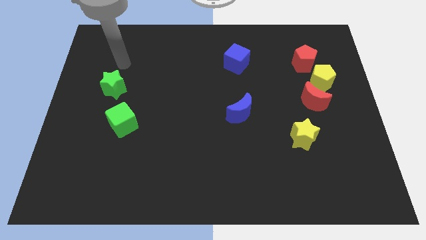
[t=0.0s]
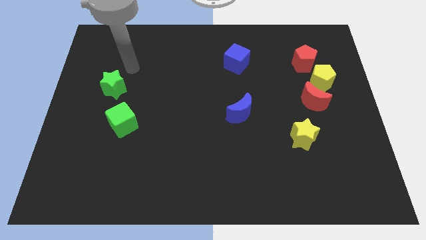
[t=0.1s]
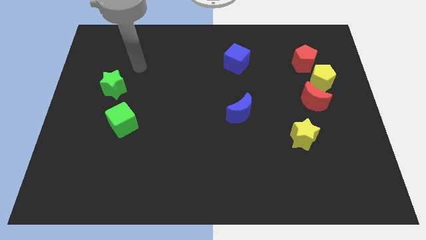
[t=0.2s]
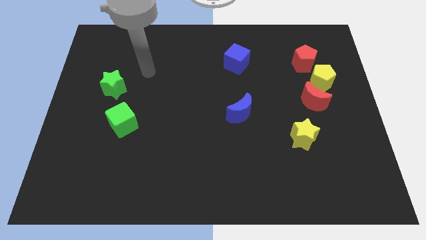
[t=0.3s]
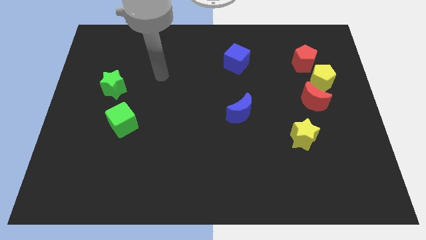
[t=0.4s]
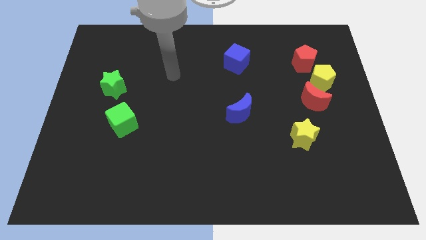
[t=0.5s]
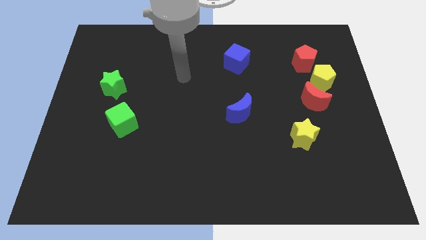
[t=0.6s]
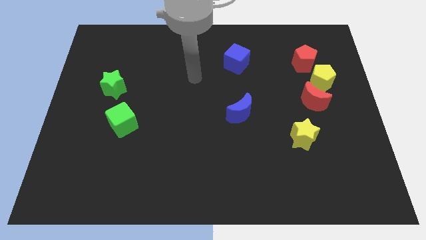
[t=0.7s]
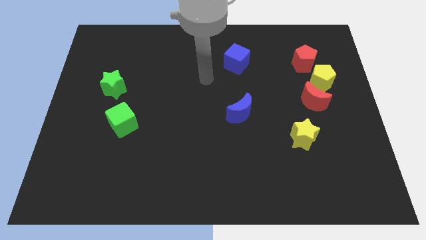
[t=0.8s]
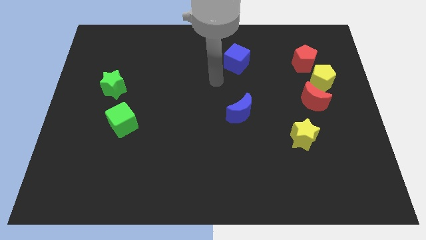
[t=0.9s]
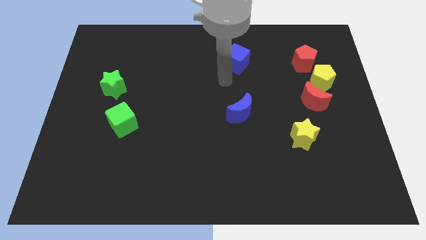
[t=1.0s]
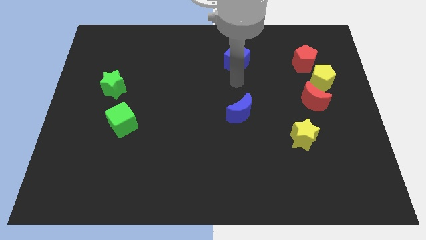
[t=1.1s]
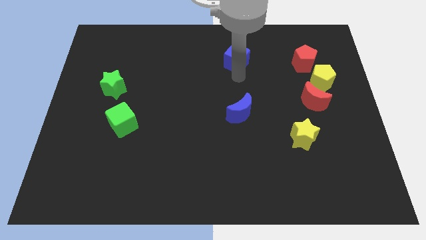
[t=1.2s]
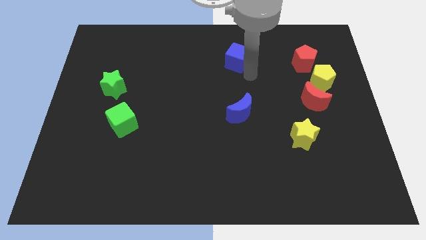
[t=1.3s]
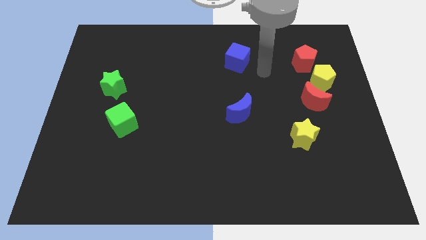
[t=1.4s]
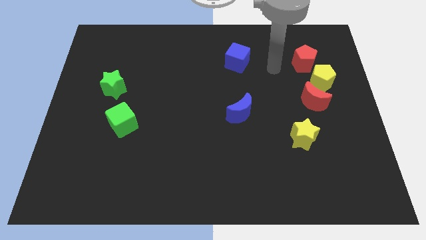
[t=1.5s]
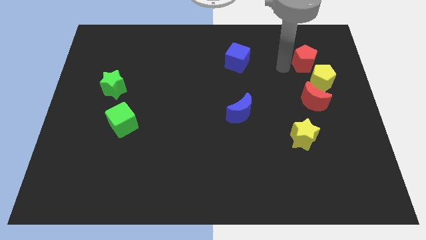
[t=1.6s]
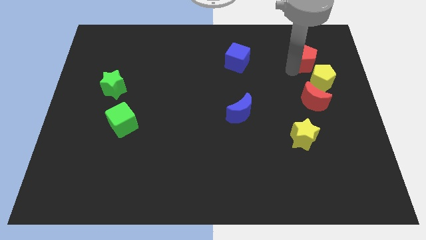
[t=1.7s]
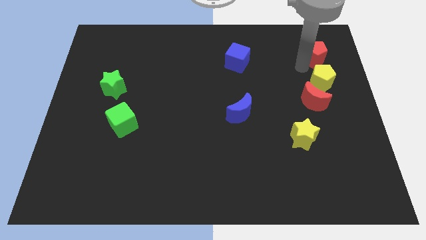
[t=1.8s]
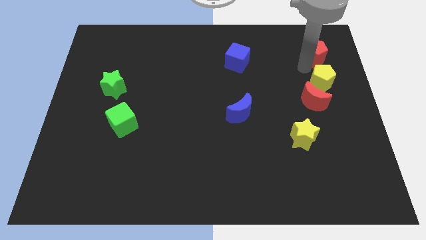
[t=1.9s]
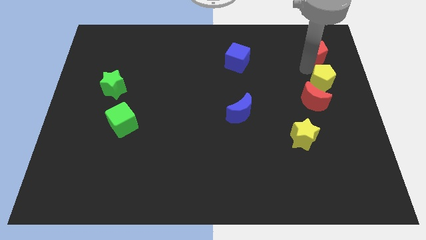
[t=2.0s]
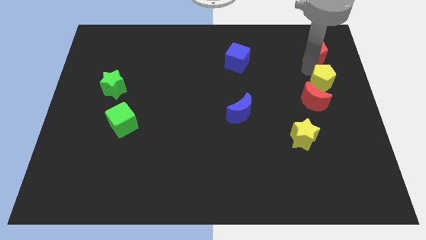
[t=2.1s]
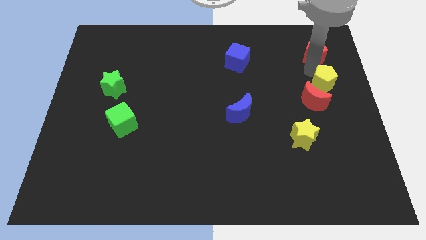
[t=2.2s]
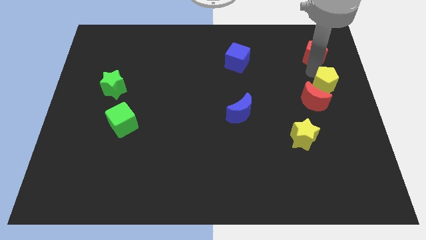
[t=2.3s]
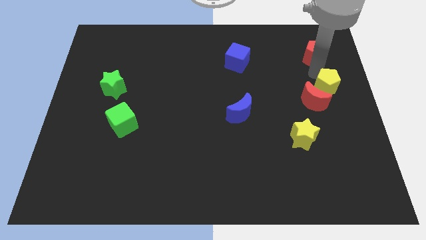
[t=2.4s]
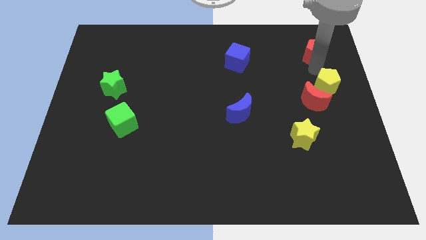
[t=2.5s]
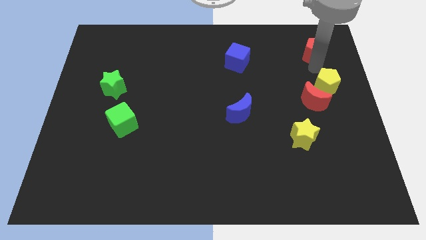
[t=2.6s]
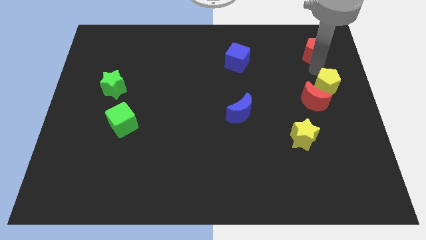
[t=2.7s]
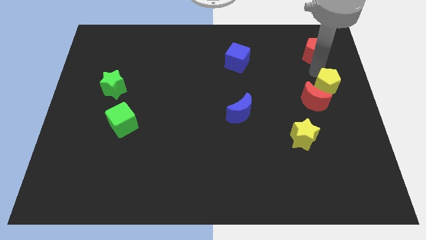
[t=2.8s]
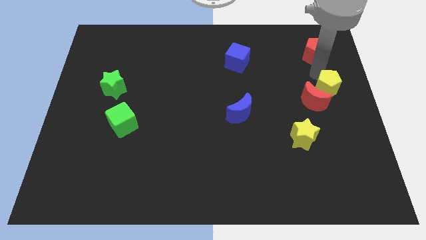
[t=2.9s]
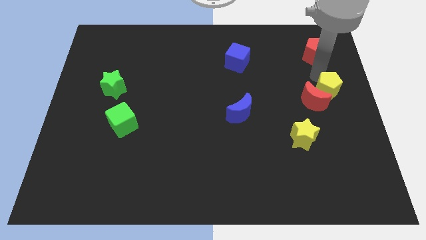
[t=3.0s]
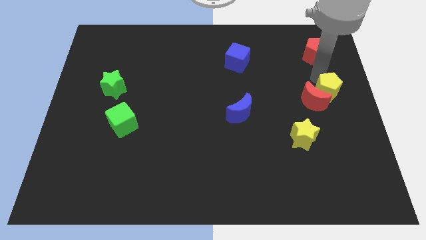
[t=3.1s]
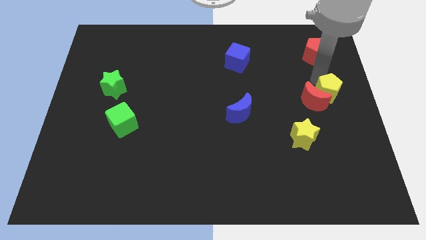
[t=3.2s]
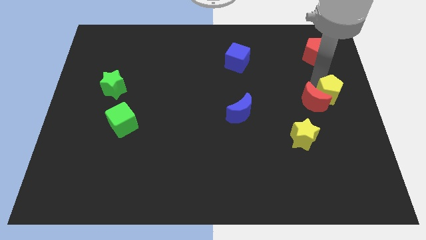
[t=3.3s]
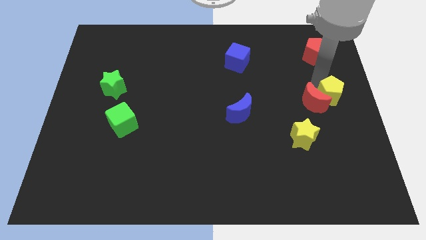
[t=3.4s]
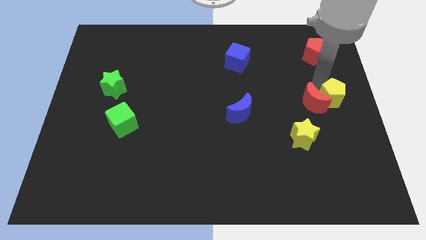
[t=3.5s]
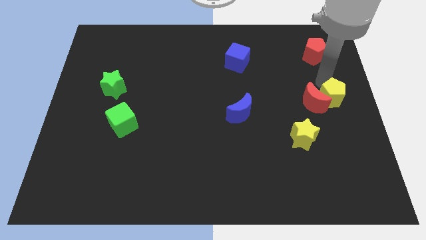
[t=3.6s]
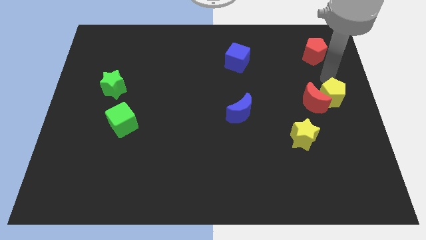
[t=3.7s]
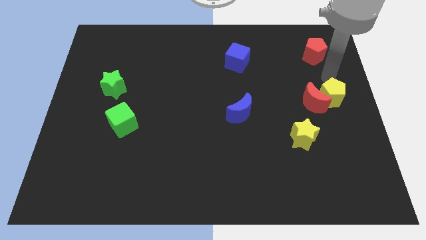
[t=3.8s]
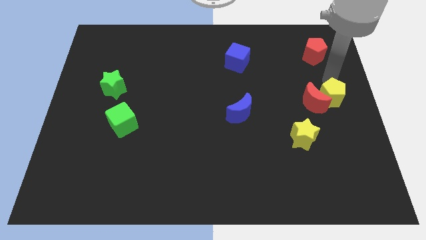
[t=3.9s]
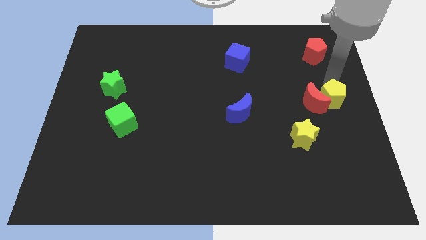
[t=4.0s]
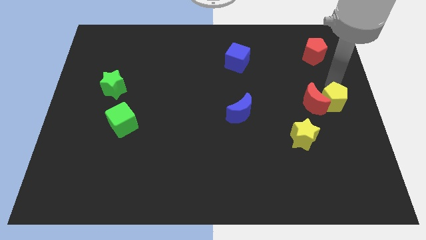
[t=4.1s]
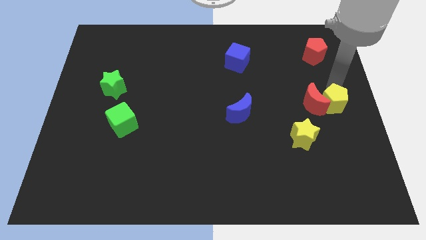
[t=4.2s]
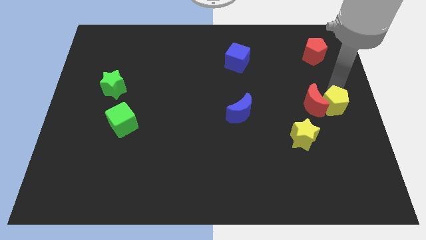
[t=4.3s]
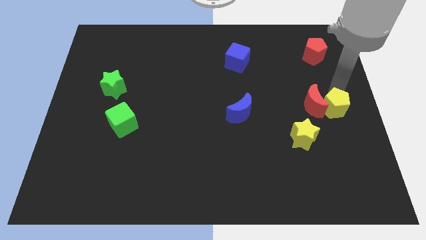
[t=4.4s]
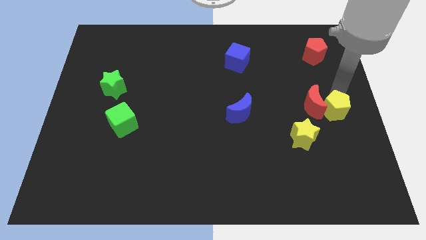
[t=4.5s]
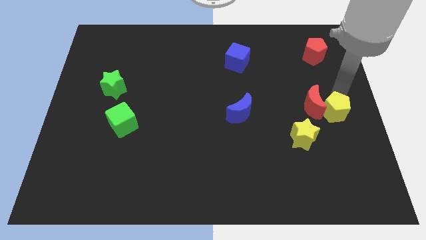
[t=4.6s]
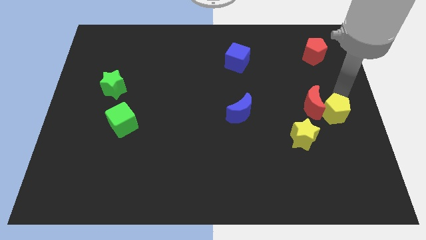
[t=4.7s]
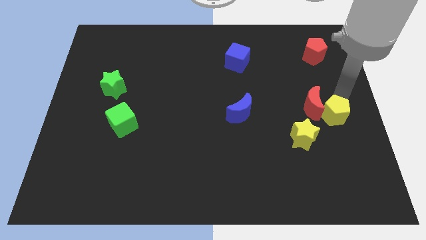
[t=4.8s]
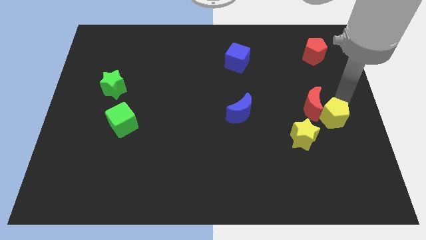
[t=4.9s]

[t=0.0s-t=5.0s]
push the yellow pentagon to the bottom of the red moon
